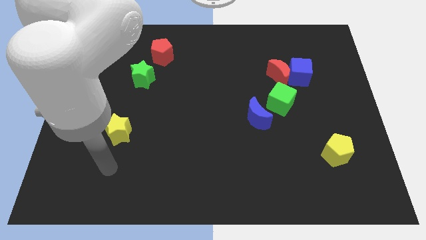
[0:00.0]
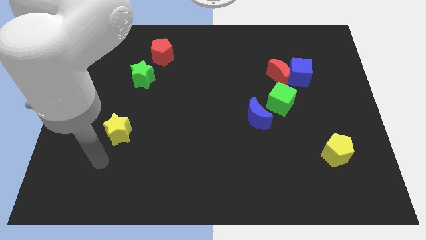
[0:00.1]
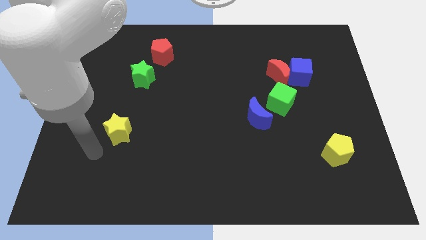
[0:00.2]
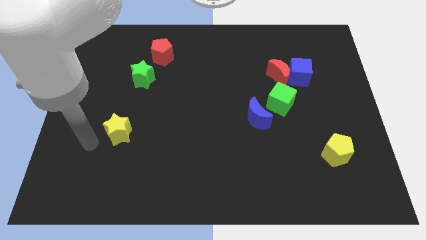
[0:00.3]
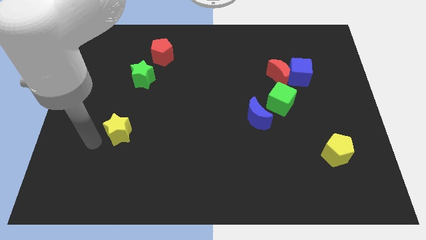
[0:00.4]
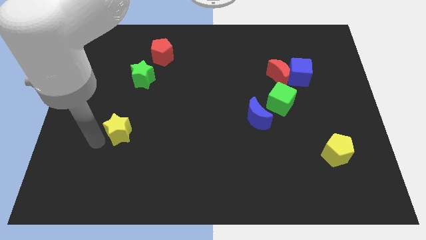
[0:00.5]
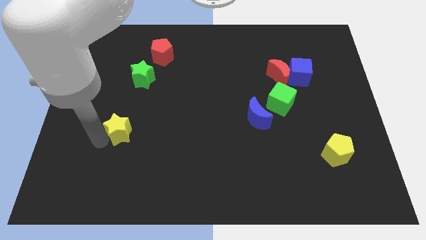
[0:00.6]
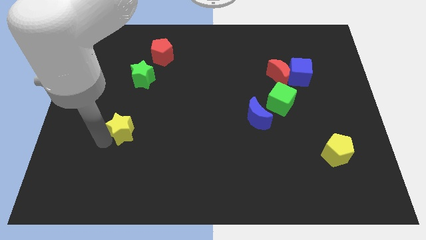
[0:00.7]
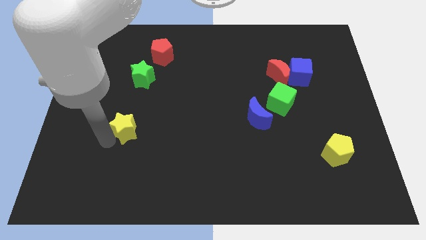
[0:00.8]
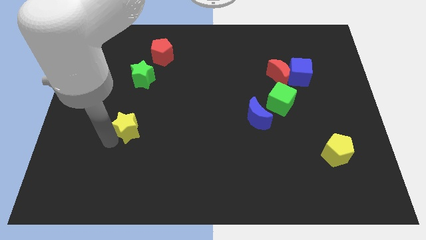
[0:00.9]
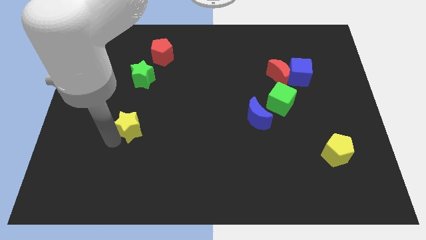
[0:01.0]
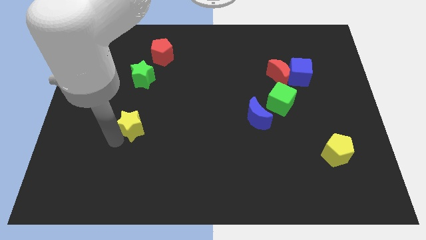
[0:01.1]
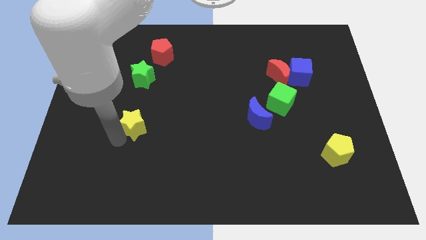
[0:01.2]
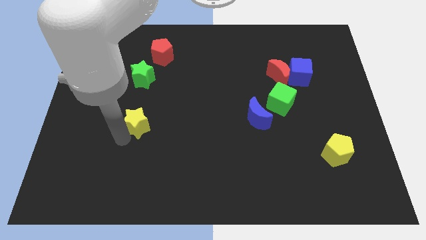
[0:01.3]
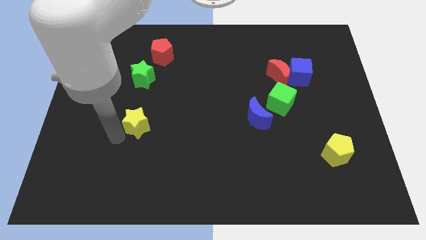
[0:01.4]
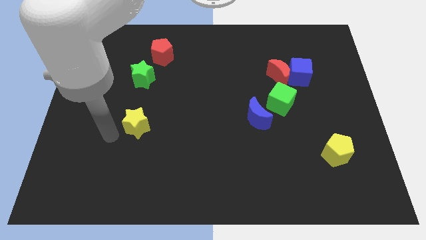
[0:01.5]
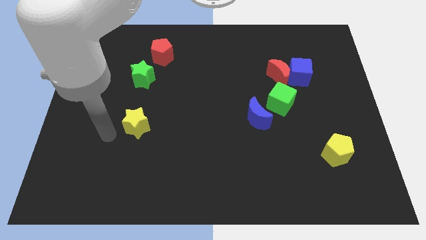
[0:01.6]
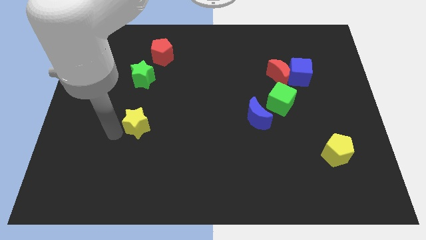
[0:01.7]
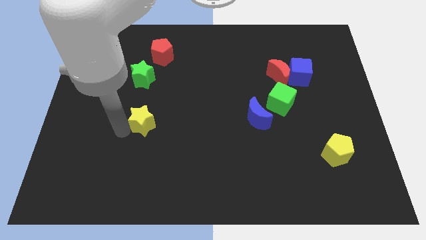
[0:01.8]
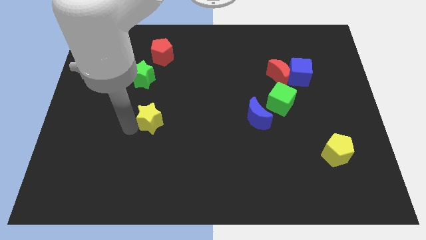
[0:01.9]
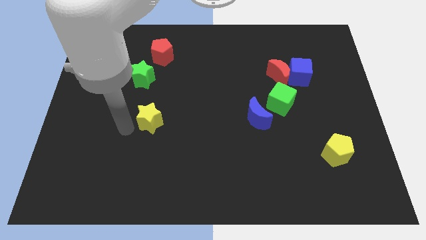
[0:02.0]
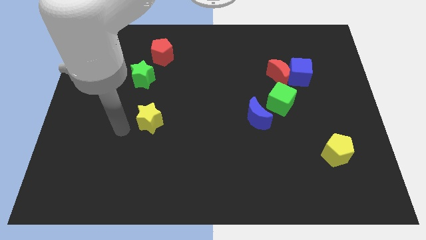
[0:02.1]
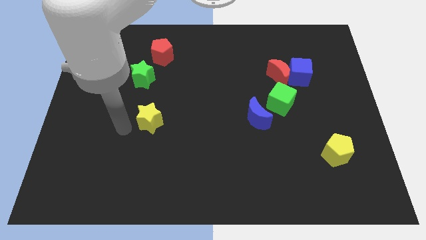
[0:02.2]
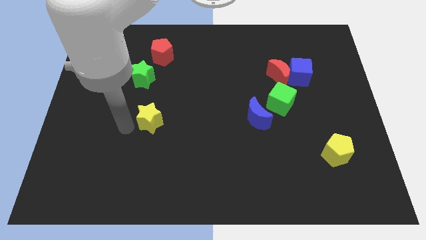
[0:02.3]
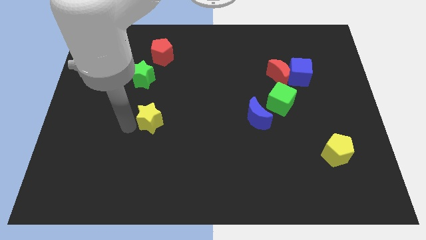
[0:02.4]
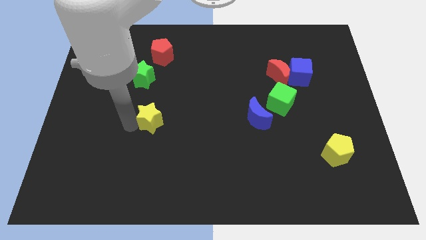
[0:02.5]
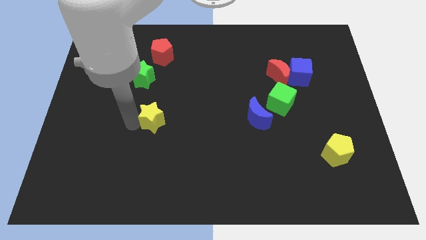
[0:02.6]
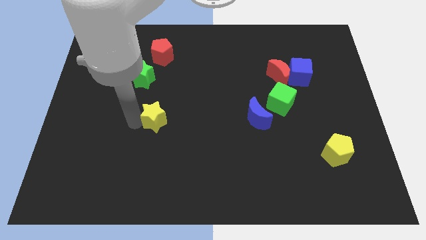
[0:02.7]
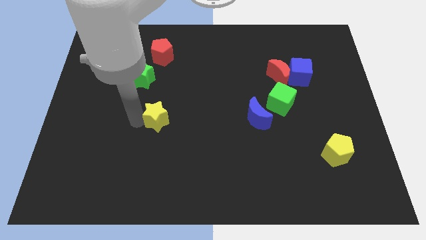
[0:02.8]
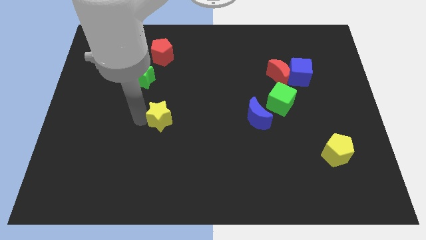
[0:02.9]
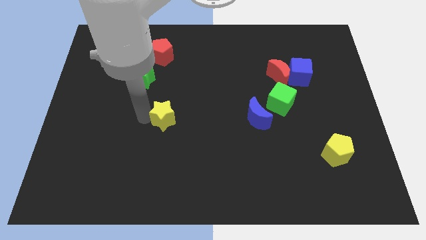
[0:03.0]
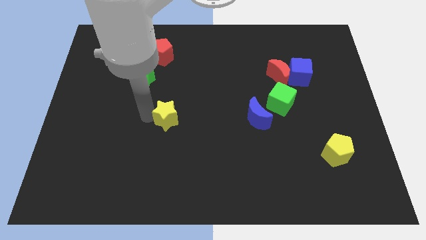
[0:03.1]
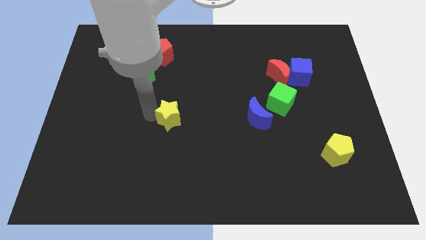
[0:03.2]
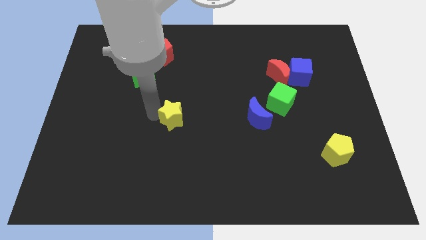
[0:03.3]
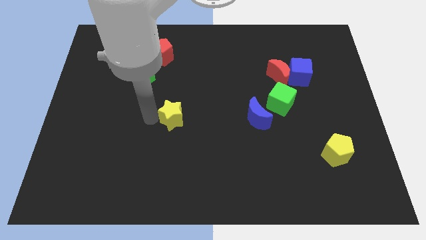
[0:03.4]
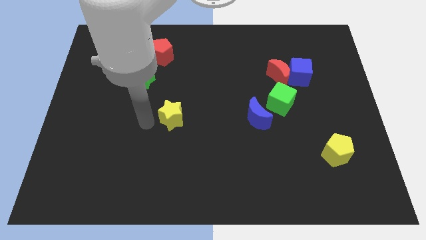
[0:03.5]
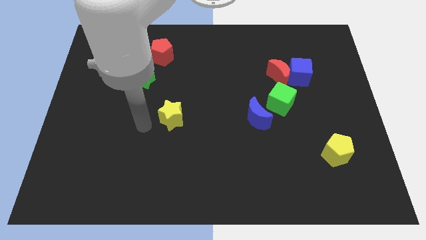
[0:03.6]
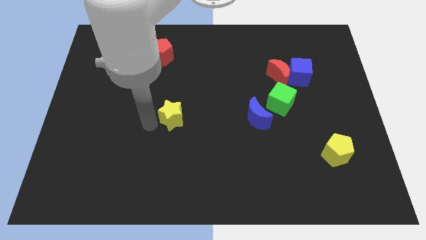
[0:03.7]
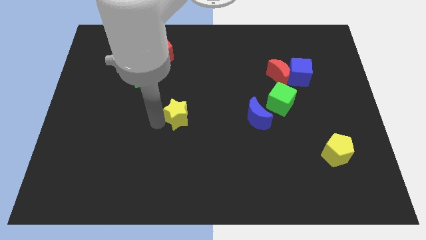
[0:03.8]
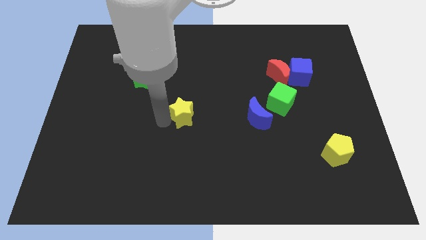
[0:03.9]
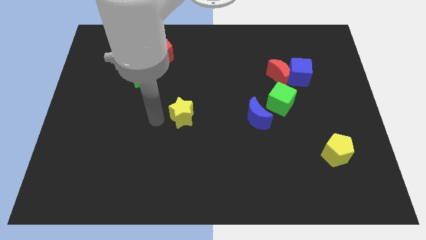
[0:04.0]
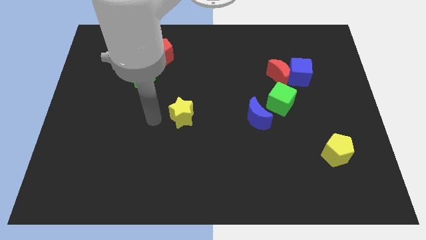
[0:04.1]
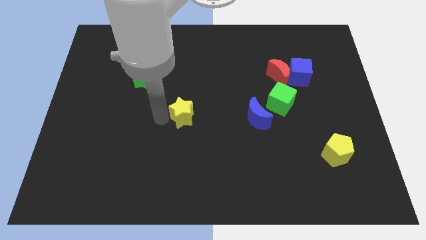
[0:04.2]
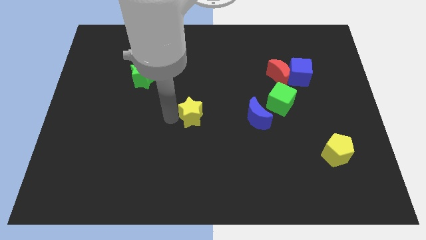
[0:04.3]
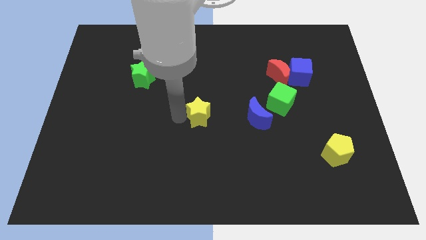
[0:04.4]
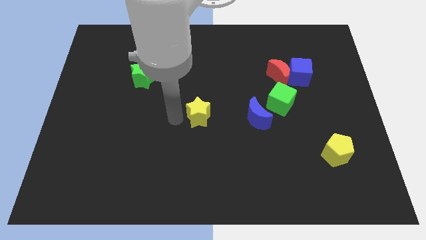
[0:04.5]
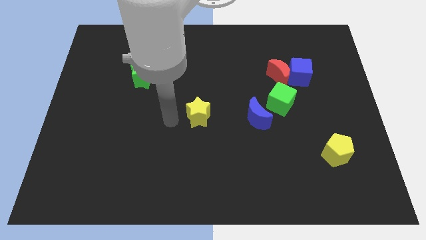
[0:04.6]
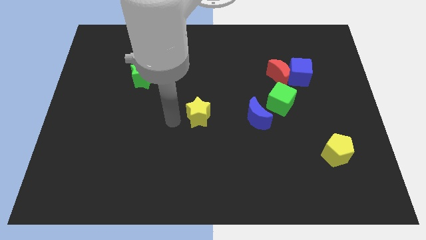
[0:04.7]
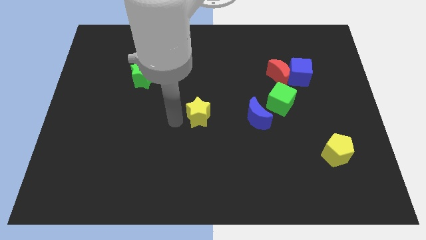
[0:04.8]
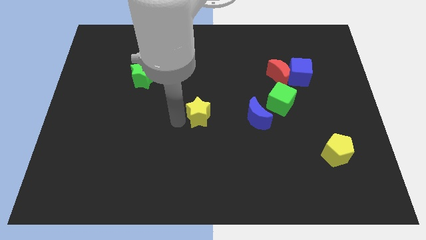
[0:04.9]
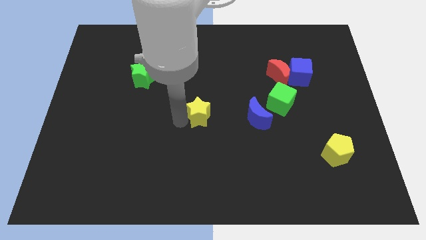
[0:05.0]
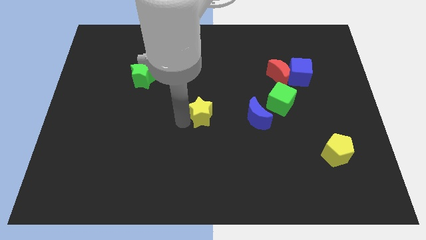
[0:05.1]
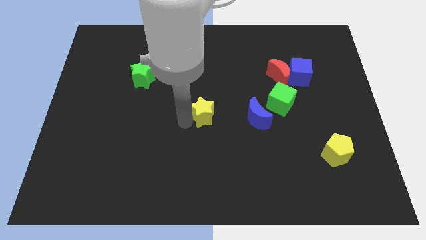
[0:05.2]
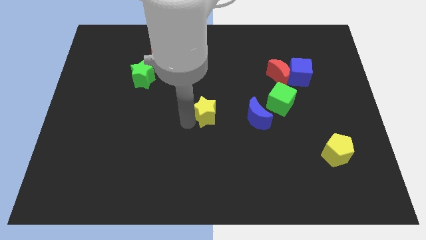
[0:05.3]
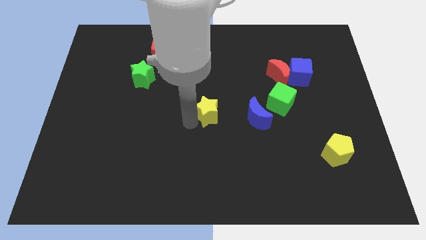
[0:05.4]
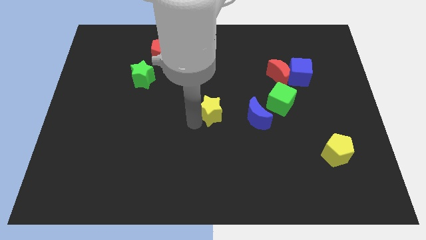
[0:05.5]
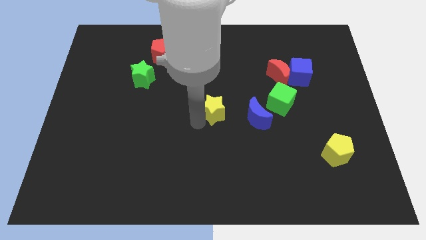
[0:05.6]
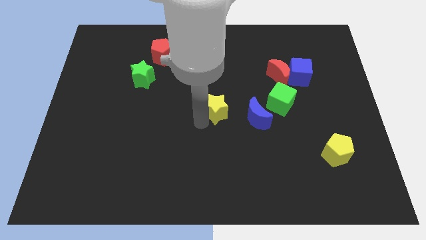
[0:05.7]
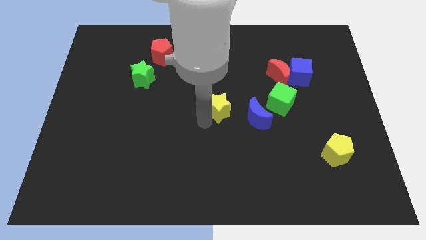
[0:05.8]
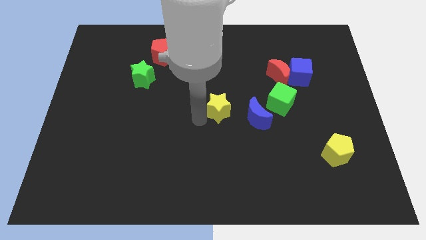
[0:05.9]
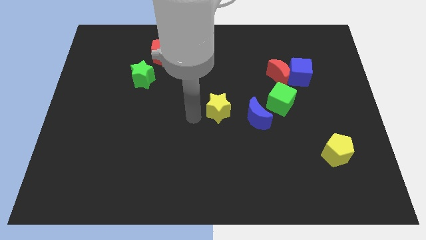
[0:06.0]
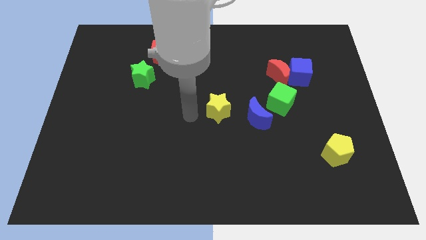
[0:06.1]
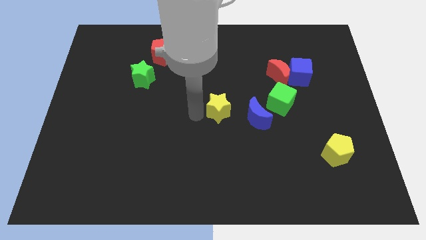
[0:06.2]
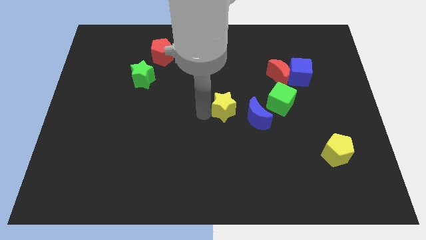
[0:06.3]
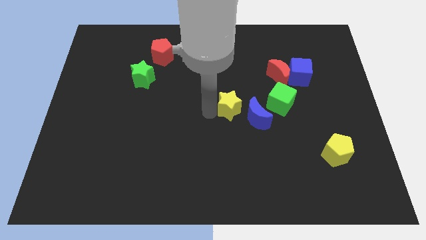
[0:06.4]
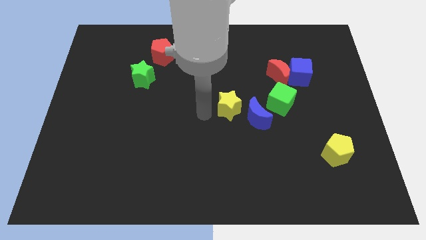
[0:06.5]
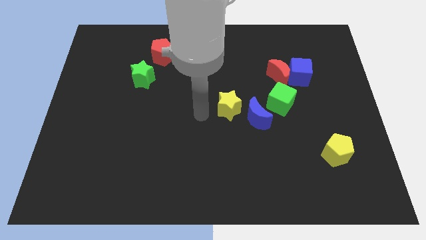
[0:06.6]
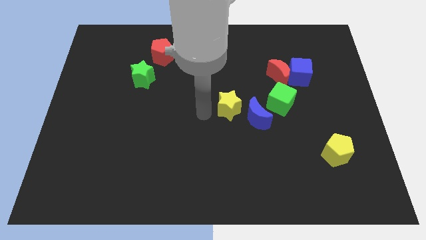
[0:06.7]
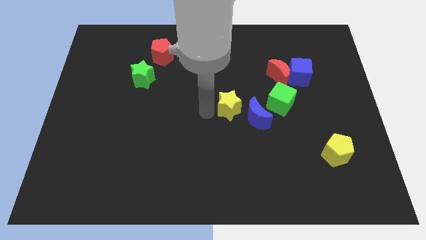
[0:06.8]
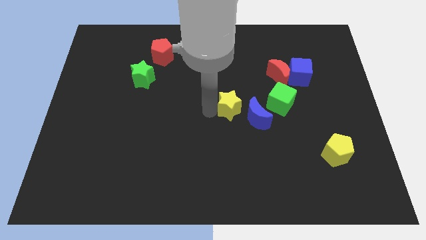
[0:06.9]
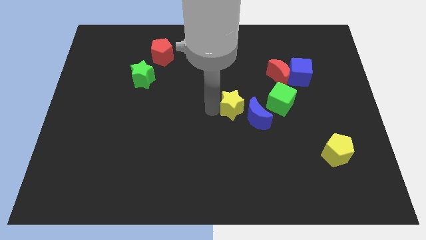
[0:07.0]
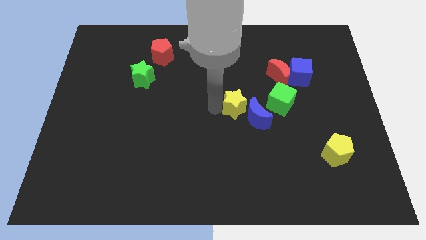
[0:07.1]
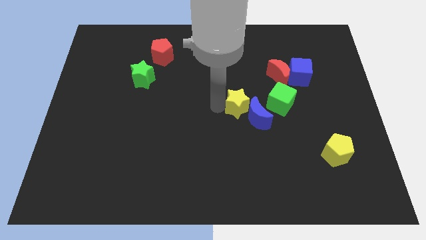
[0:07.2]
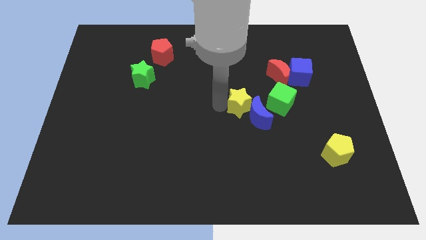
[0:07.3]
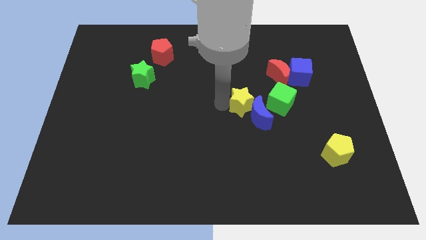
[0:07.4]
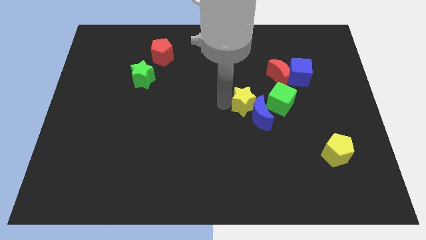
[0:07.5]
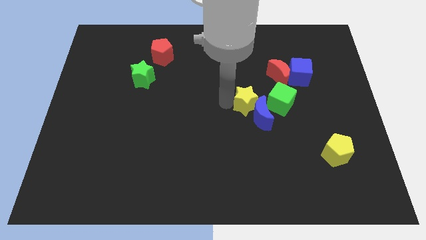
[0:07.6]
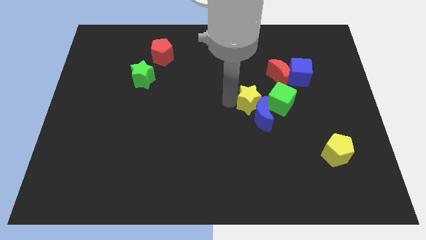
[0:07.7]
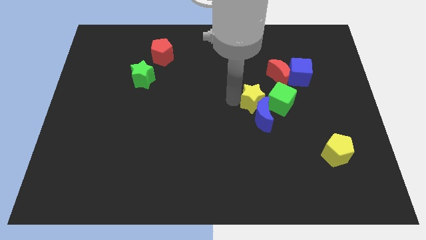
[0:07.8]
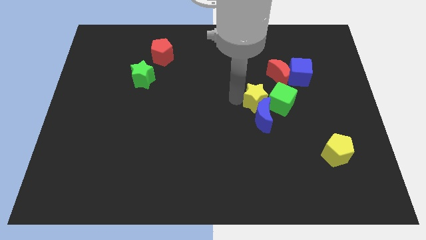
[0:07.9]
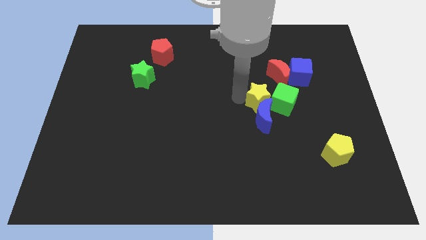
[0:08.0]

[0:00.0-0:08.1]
put the yellow star next to the green cube
